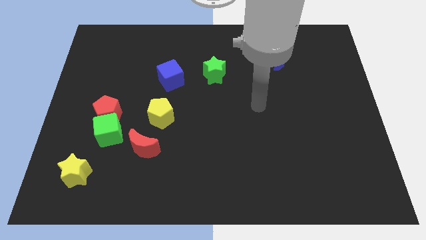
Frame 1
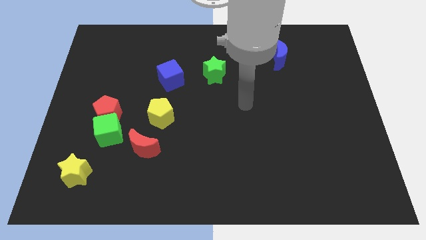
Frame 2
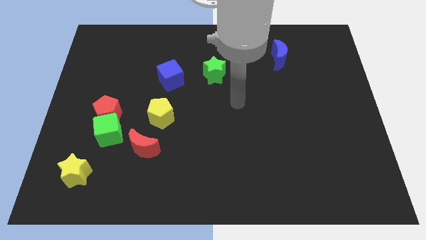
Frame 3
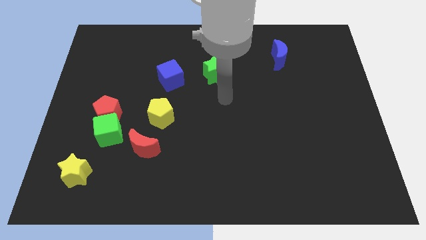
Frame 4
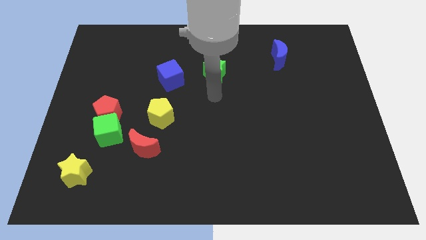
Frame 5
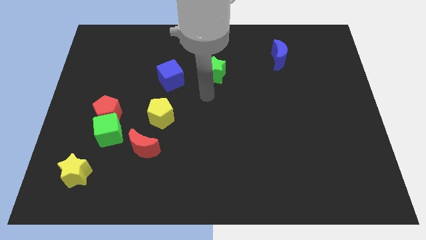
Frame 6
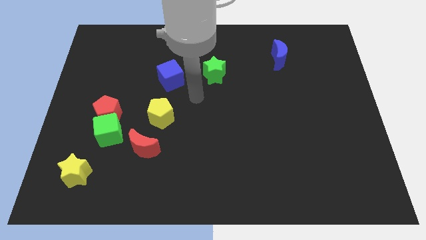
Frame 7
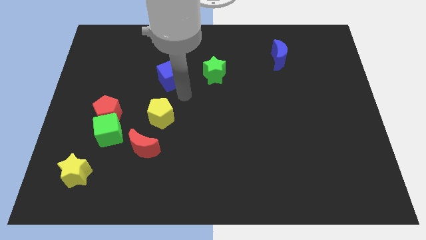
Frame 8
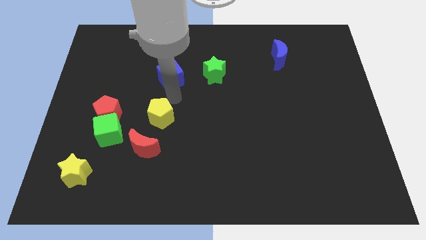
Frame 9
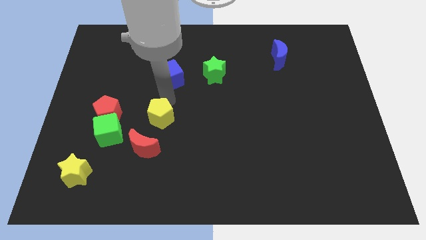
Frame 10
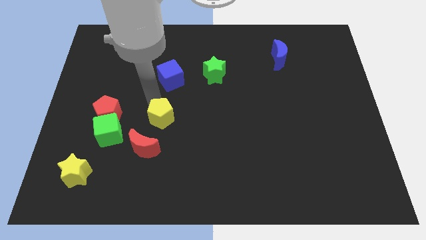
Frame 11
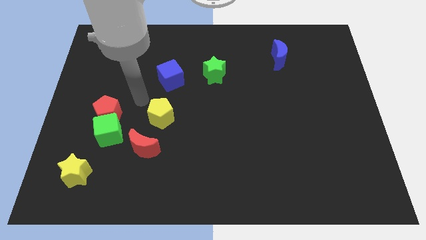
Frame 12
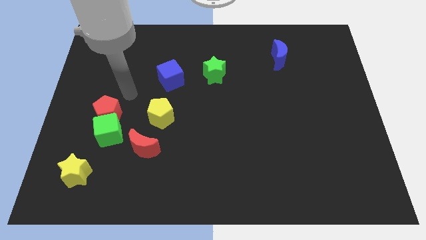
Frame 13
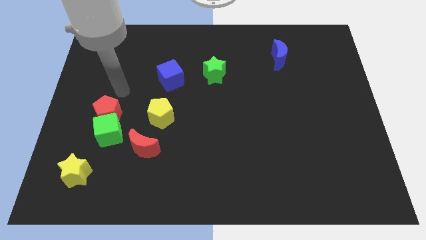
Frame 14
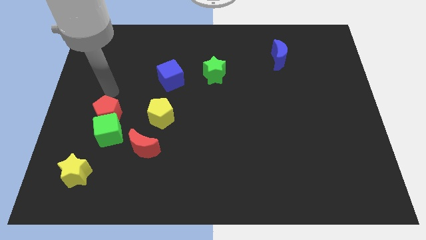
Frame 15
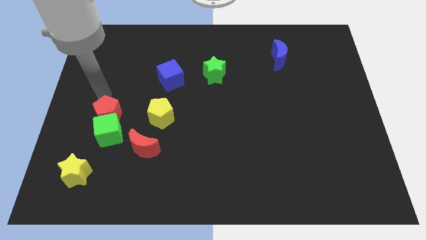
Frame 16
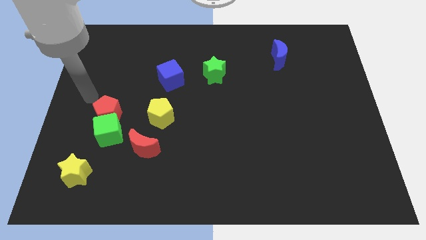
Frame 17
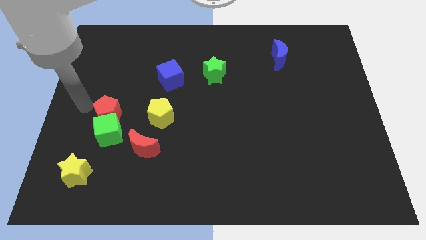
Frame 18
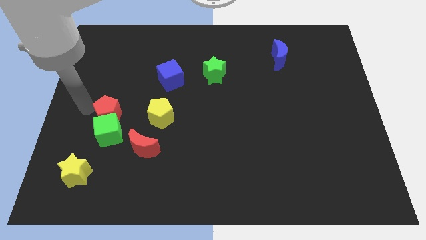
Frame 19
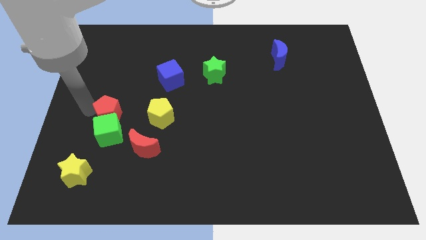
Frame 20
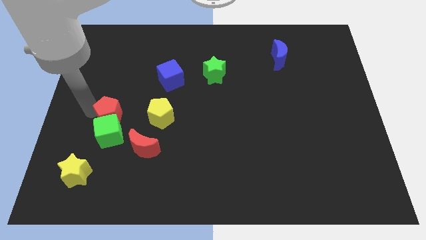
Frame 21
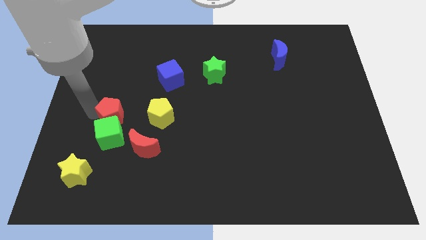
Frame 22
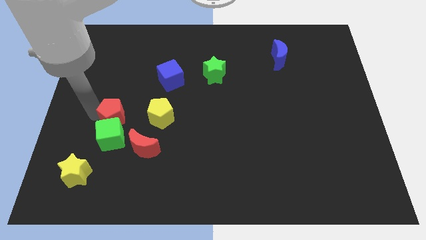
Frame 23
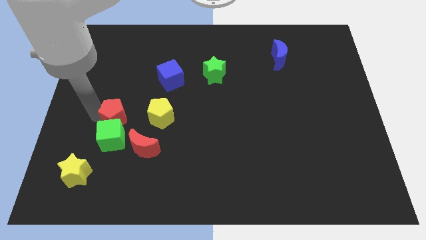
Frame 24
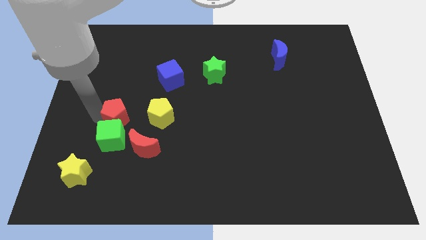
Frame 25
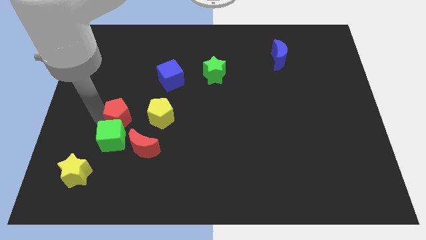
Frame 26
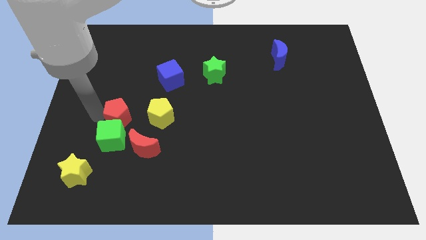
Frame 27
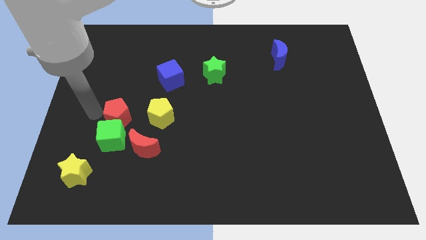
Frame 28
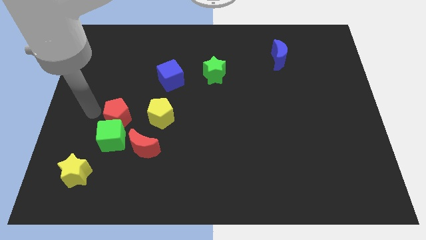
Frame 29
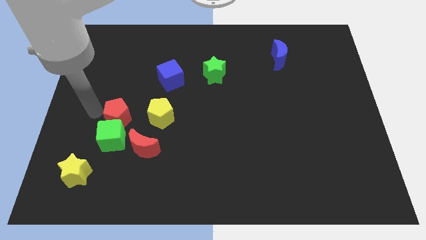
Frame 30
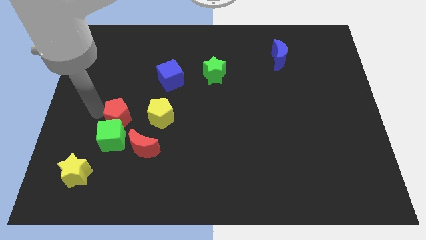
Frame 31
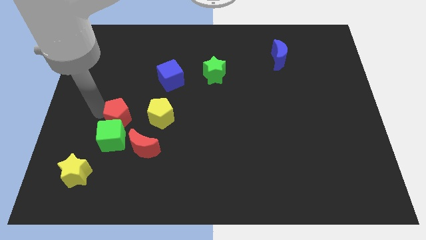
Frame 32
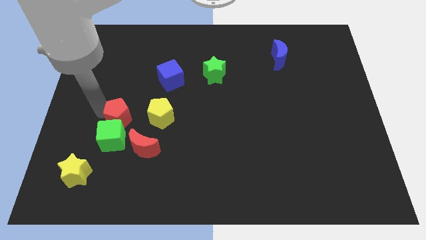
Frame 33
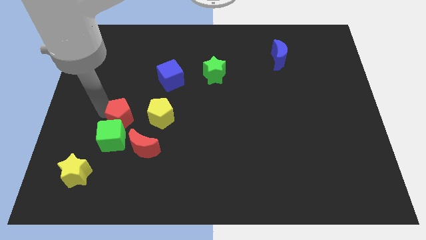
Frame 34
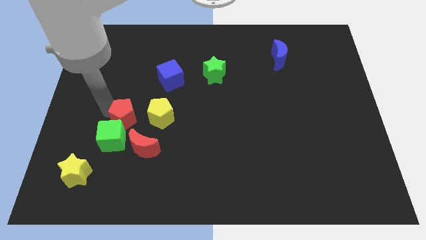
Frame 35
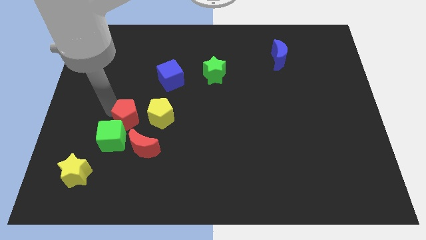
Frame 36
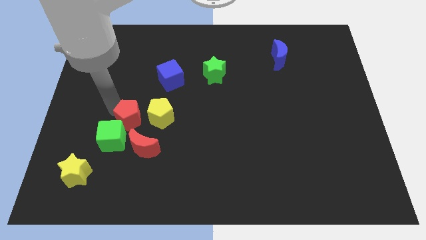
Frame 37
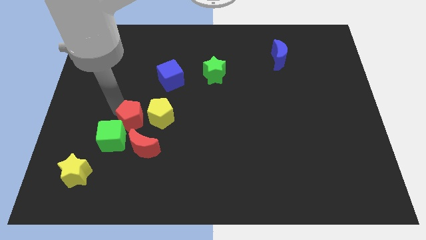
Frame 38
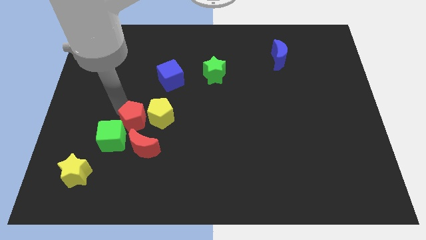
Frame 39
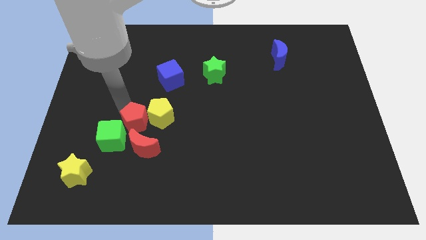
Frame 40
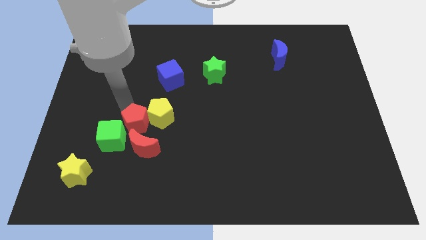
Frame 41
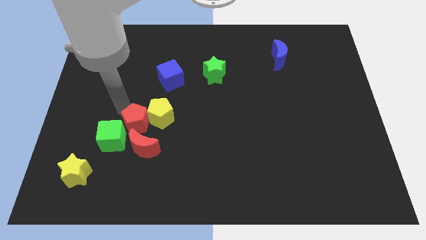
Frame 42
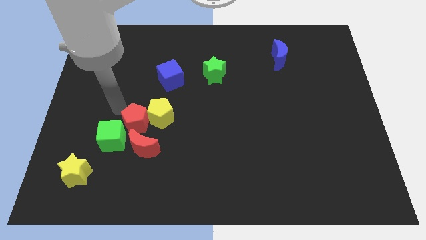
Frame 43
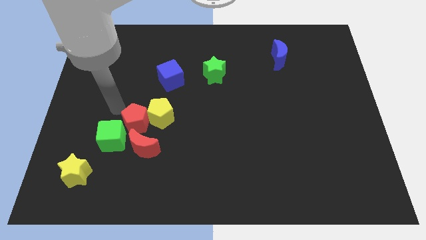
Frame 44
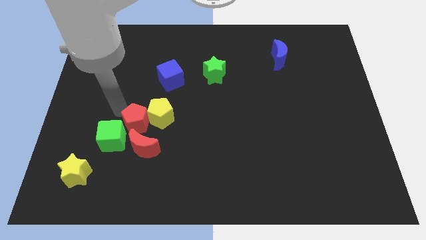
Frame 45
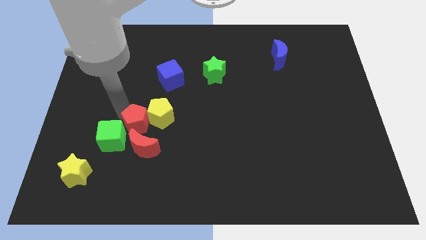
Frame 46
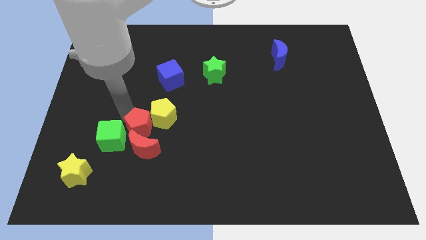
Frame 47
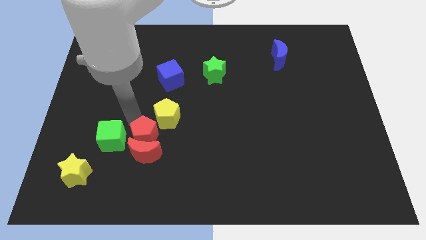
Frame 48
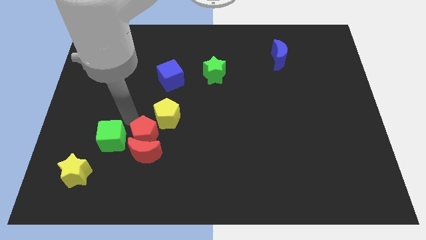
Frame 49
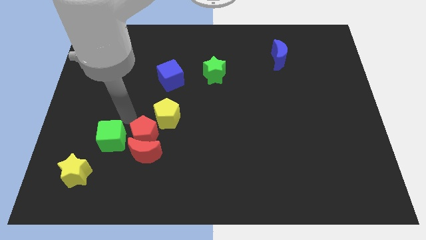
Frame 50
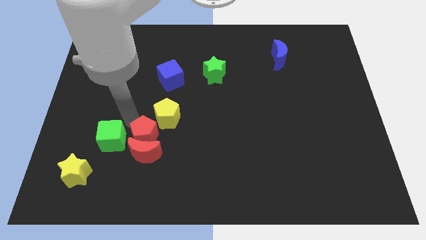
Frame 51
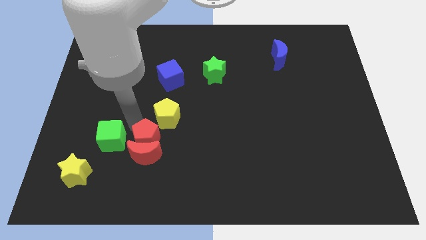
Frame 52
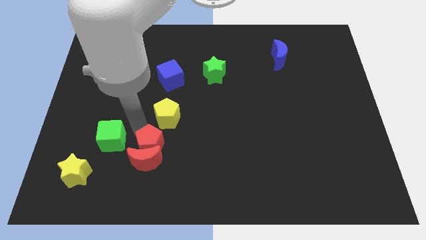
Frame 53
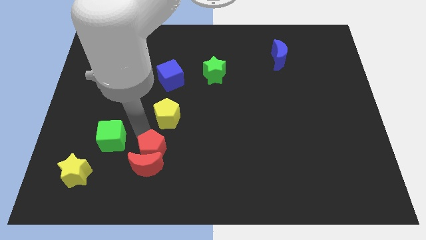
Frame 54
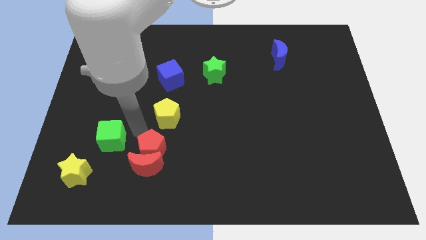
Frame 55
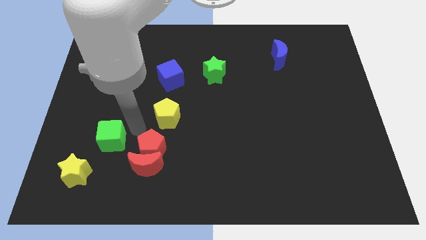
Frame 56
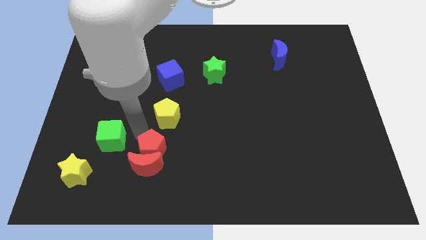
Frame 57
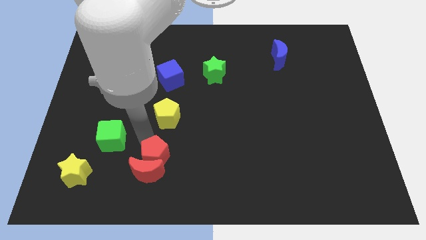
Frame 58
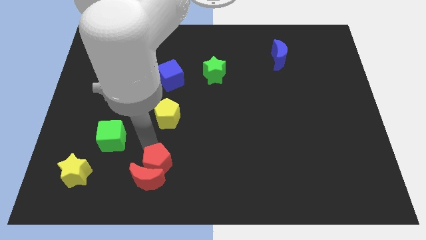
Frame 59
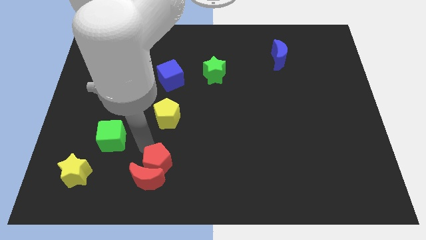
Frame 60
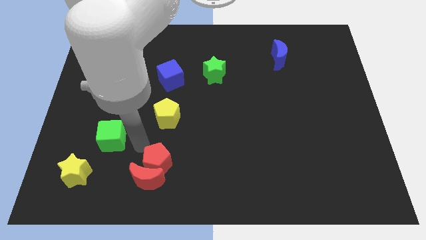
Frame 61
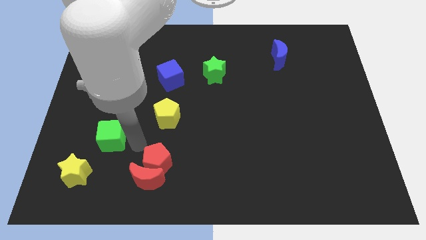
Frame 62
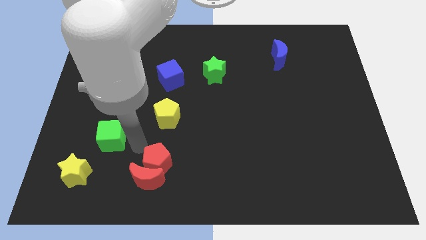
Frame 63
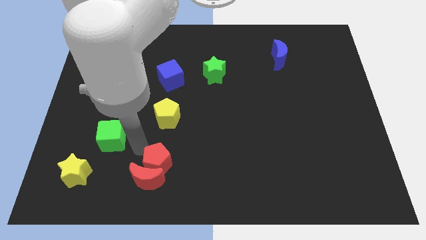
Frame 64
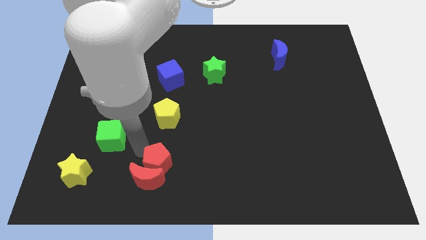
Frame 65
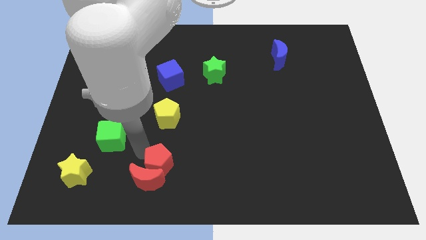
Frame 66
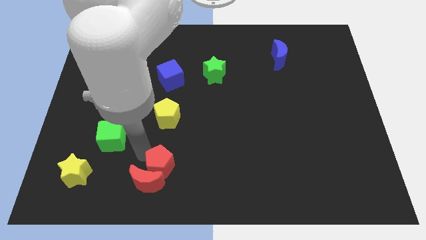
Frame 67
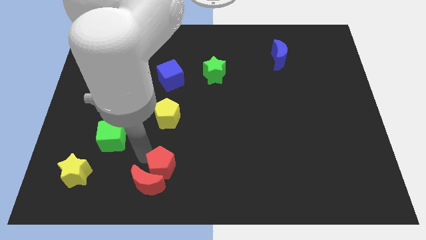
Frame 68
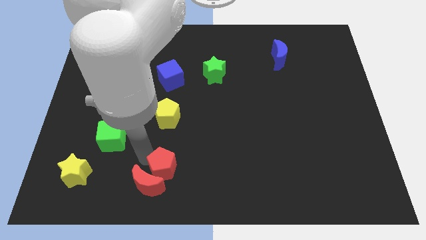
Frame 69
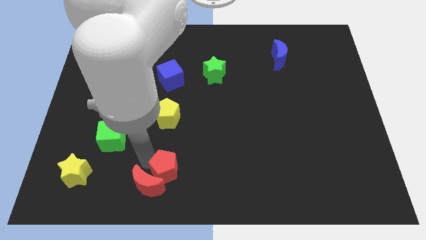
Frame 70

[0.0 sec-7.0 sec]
put the red pentagon to the bottom
